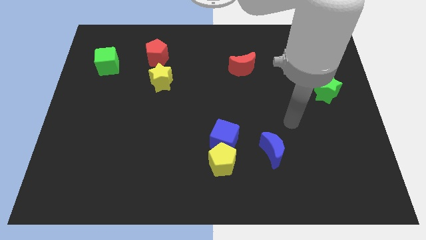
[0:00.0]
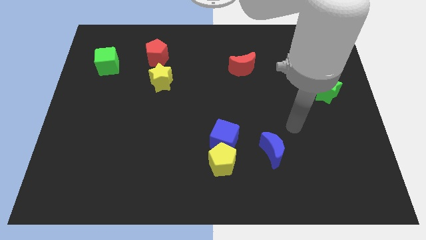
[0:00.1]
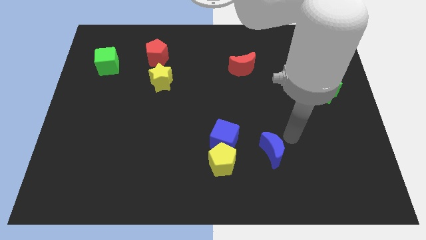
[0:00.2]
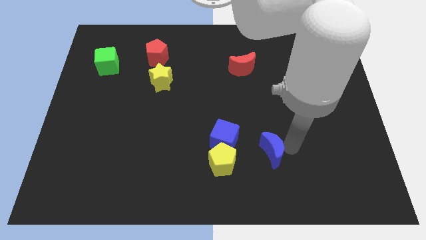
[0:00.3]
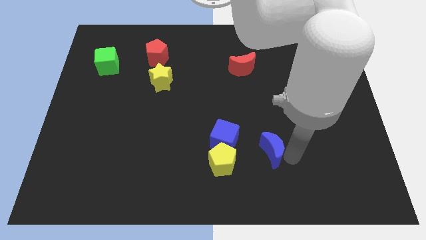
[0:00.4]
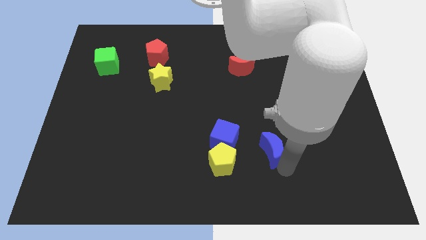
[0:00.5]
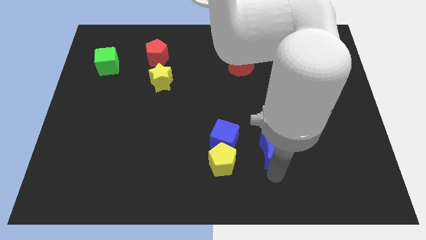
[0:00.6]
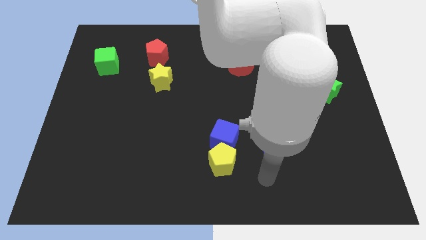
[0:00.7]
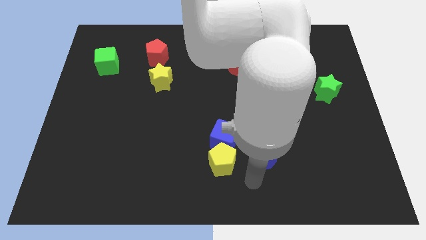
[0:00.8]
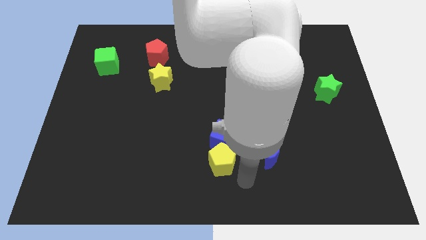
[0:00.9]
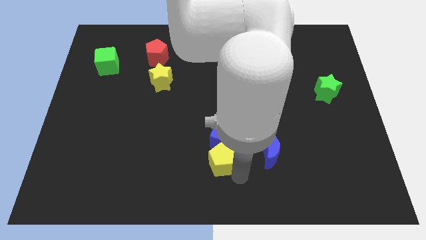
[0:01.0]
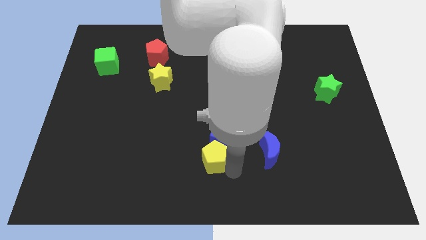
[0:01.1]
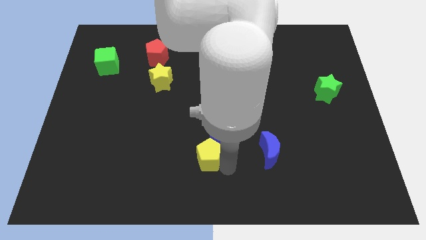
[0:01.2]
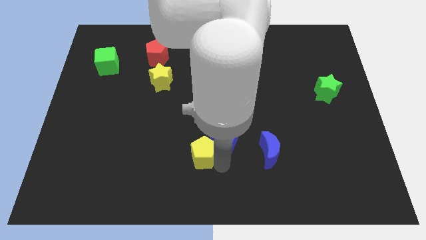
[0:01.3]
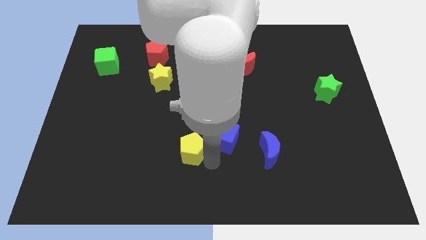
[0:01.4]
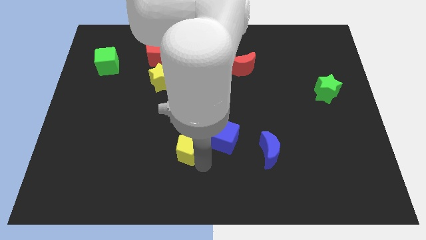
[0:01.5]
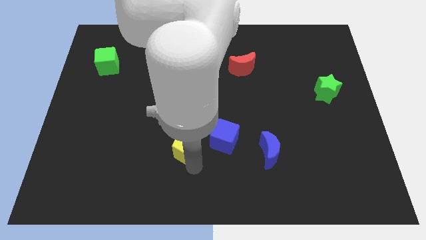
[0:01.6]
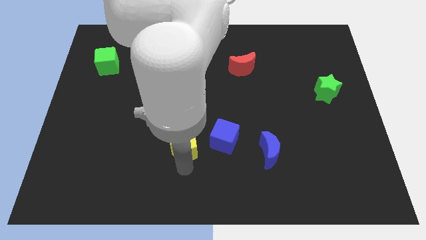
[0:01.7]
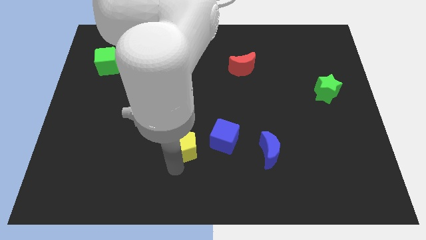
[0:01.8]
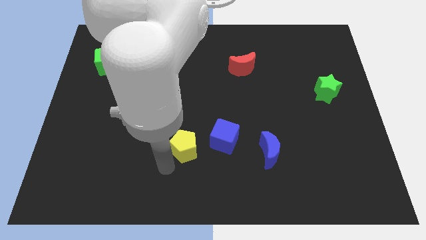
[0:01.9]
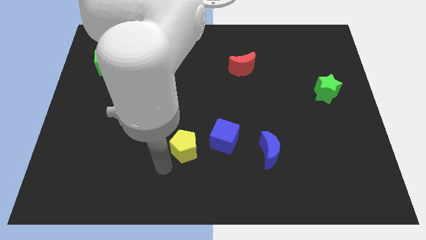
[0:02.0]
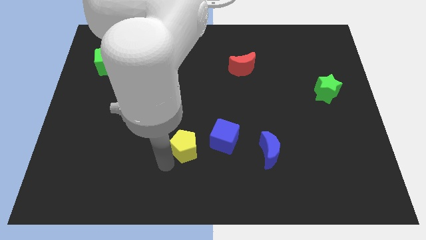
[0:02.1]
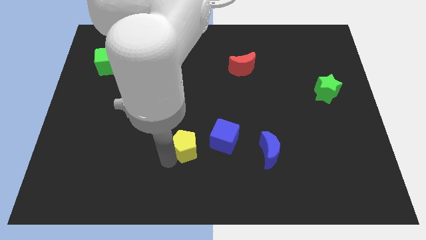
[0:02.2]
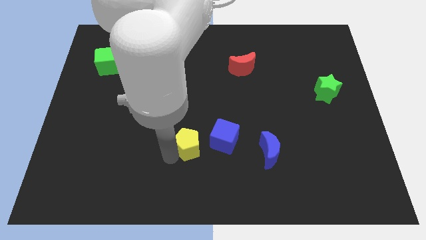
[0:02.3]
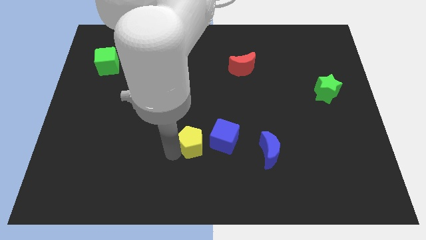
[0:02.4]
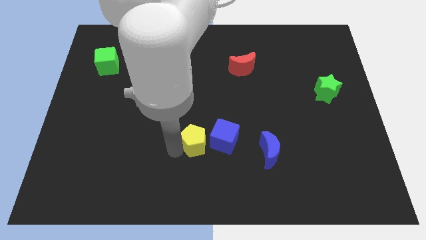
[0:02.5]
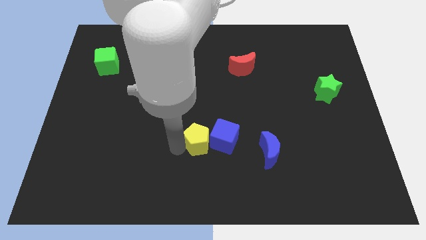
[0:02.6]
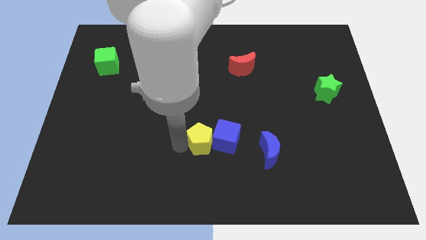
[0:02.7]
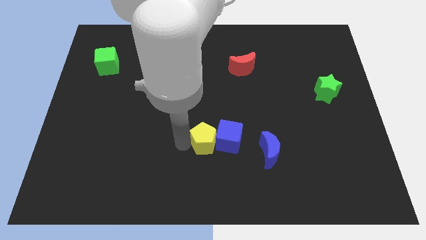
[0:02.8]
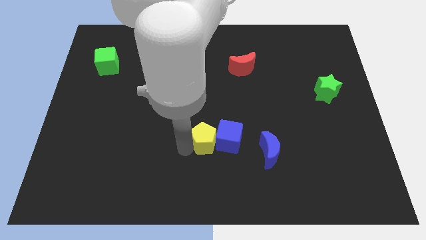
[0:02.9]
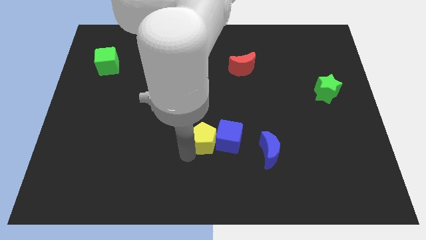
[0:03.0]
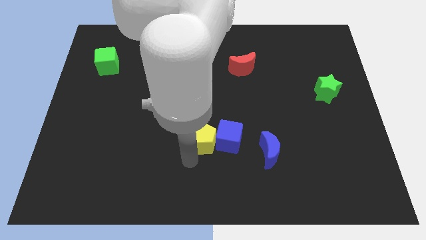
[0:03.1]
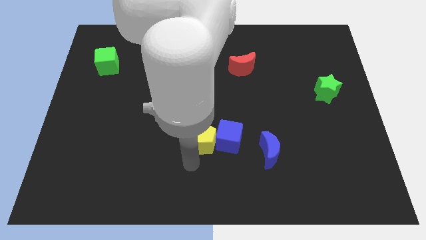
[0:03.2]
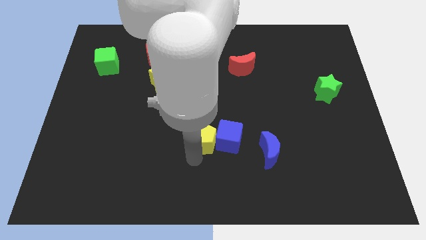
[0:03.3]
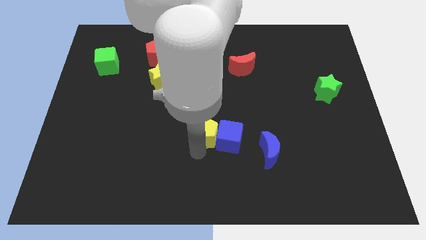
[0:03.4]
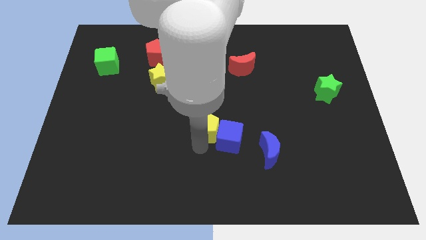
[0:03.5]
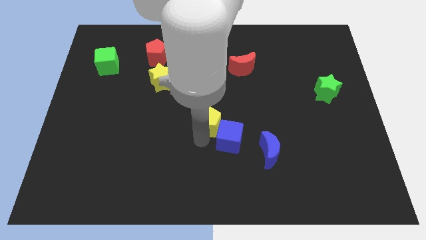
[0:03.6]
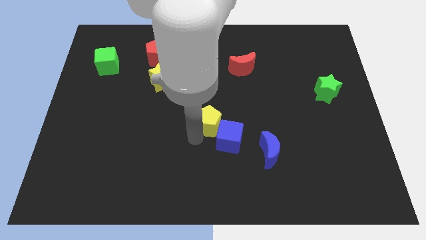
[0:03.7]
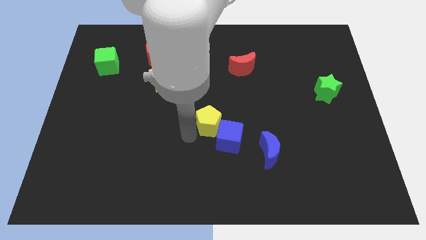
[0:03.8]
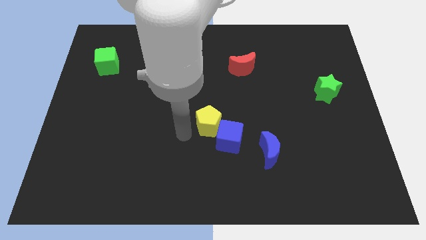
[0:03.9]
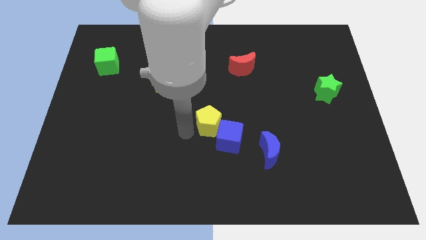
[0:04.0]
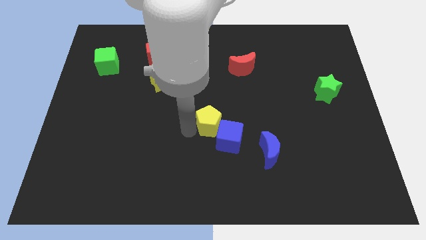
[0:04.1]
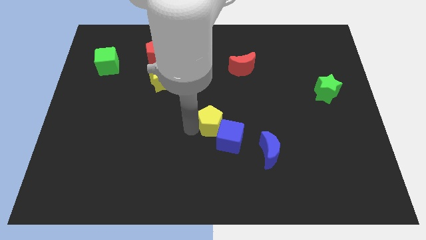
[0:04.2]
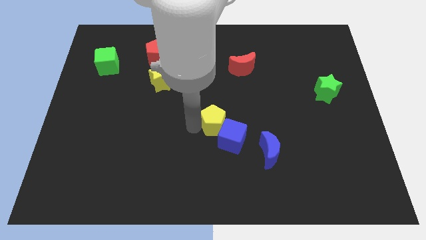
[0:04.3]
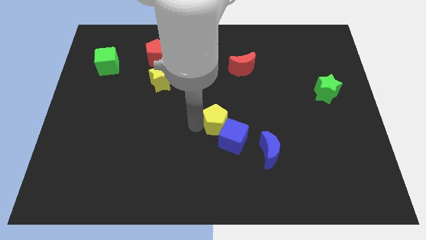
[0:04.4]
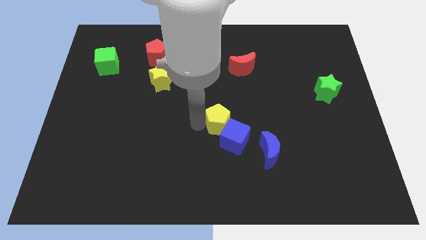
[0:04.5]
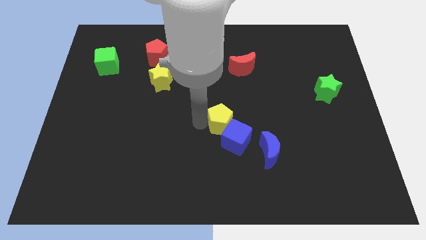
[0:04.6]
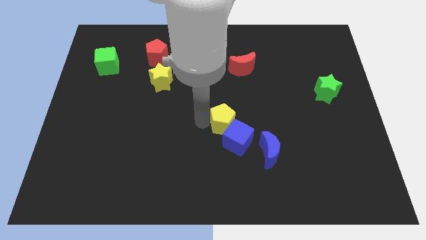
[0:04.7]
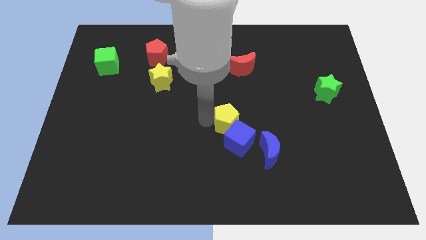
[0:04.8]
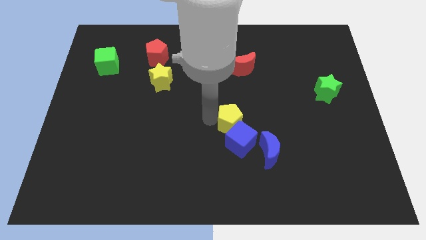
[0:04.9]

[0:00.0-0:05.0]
slide the yellow pentagon up and to the right diagonally a little

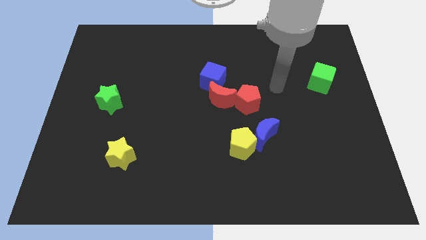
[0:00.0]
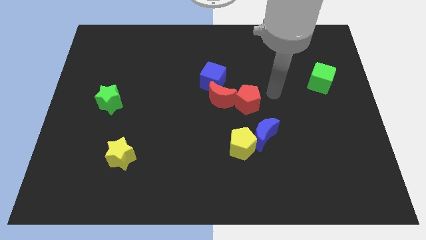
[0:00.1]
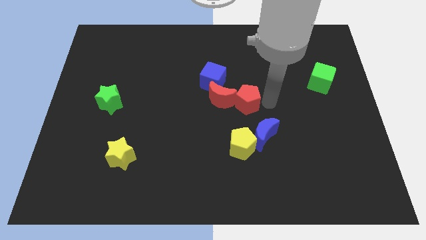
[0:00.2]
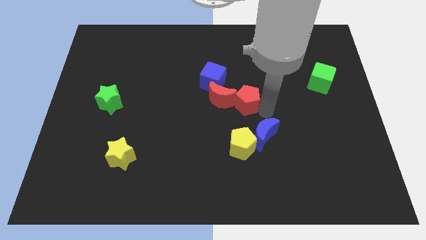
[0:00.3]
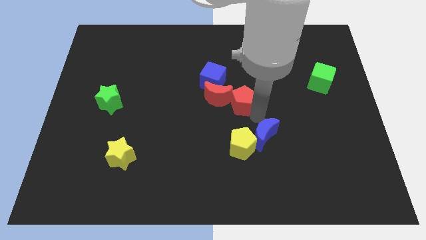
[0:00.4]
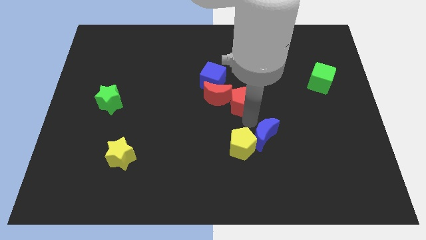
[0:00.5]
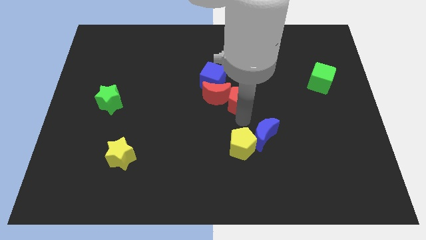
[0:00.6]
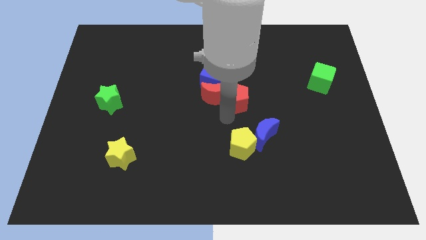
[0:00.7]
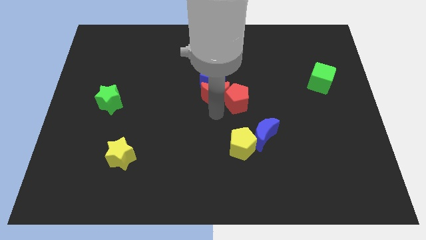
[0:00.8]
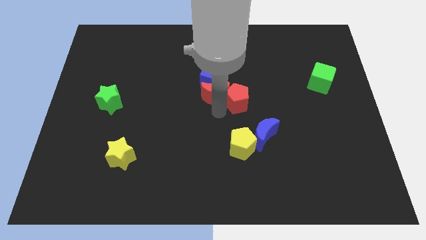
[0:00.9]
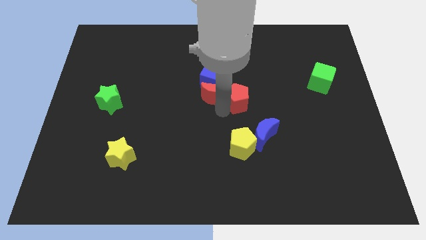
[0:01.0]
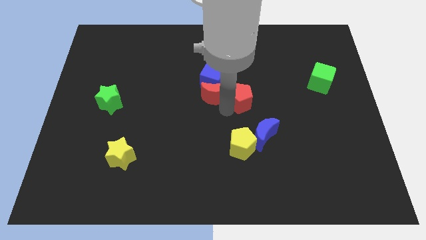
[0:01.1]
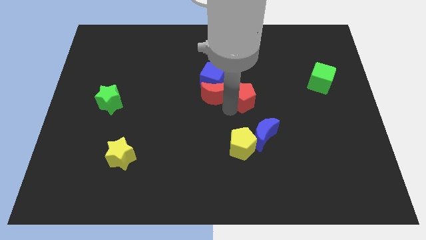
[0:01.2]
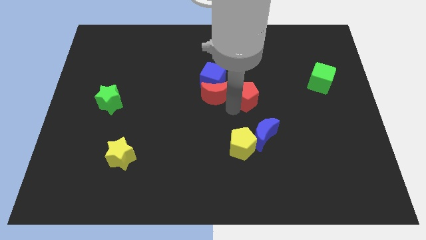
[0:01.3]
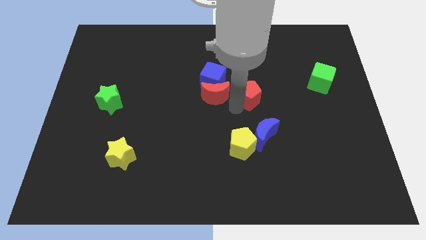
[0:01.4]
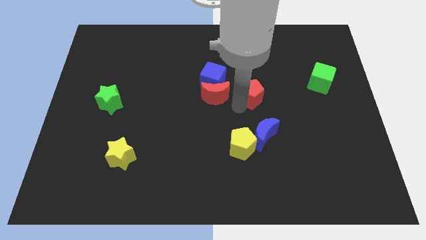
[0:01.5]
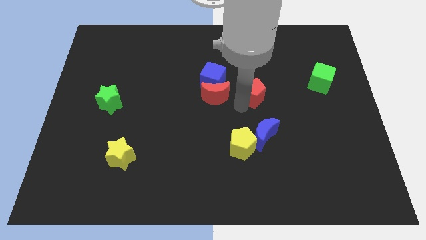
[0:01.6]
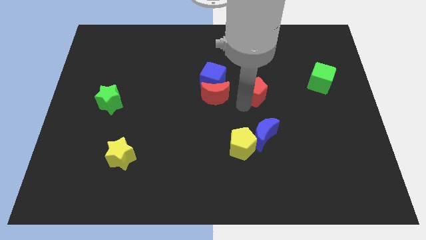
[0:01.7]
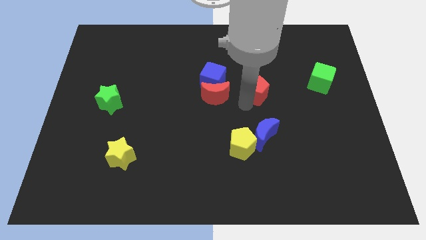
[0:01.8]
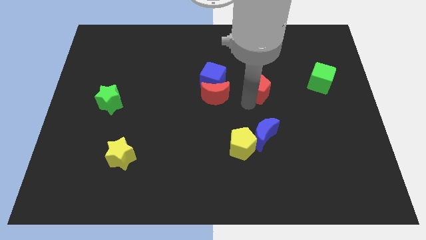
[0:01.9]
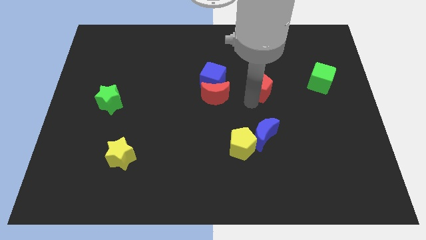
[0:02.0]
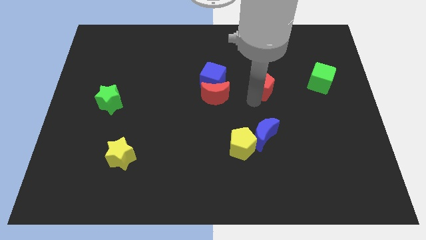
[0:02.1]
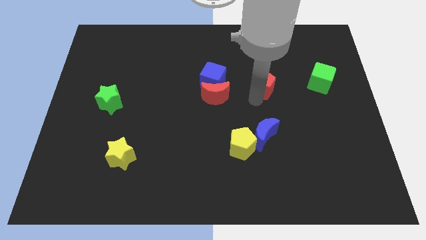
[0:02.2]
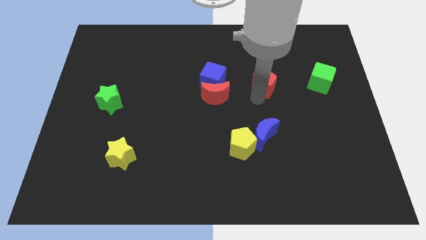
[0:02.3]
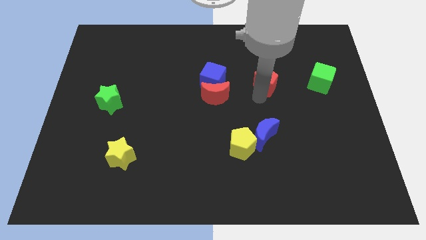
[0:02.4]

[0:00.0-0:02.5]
push the red pentagon a little diagonally up and to the right

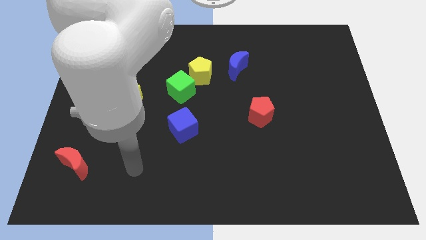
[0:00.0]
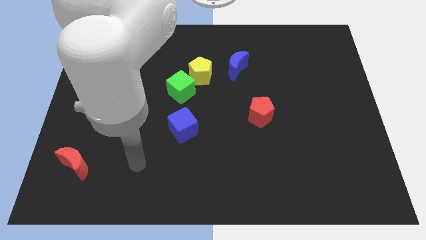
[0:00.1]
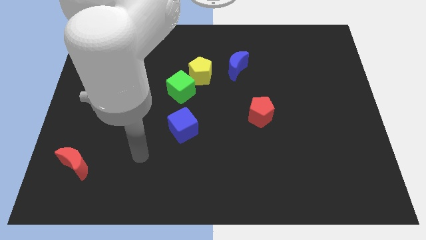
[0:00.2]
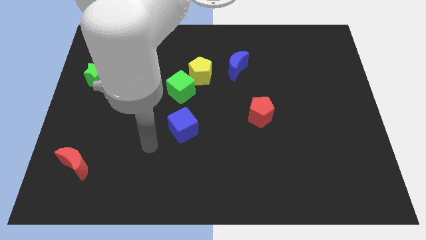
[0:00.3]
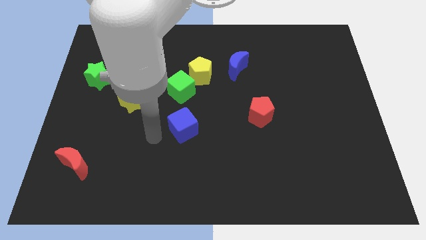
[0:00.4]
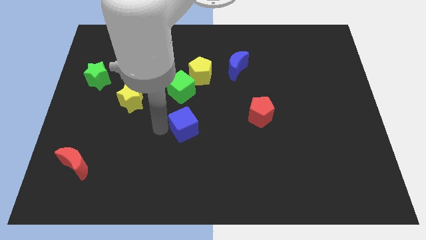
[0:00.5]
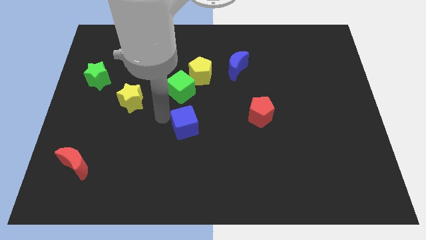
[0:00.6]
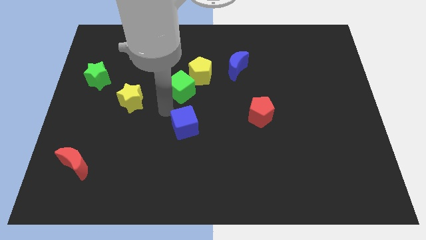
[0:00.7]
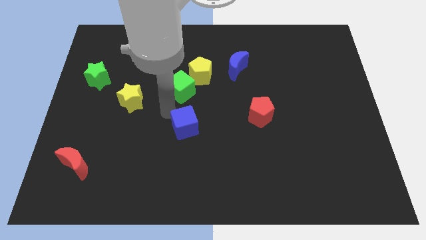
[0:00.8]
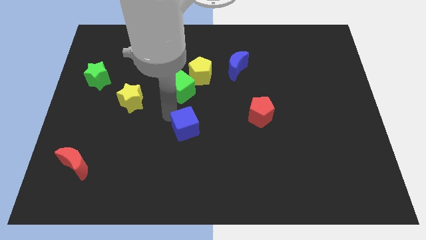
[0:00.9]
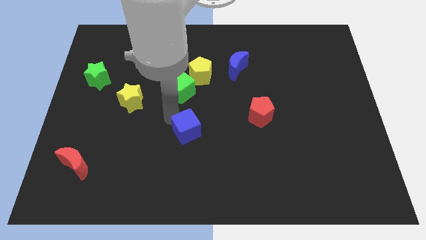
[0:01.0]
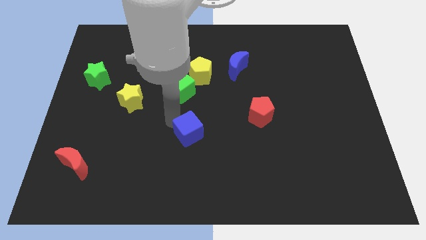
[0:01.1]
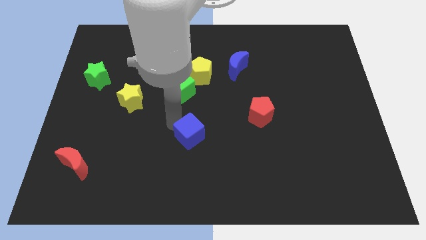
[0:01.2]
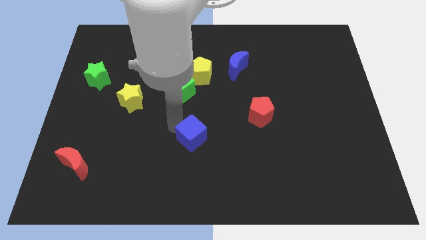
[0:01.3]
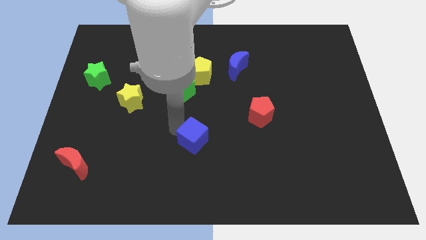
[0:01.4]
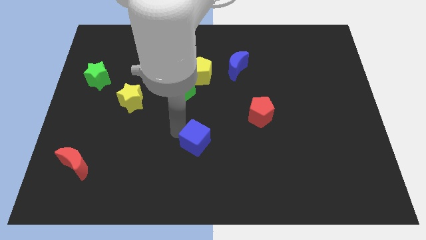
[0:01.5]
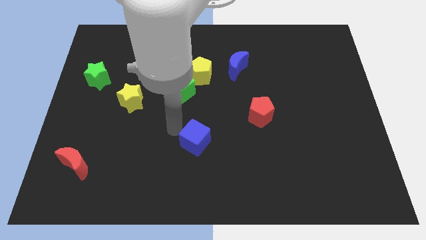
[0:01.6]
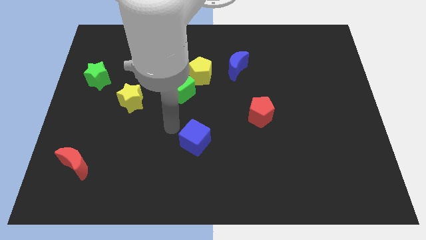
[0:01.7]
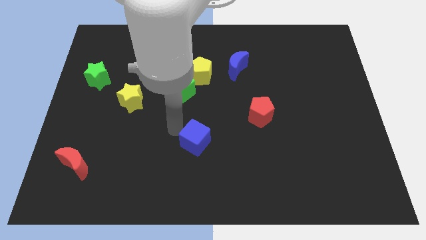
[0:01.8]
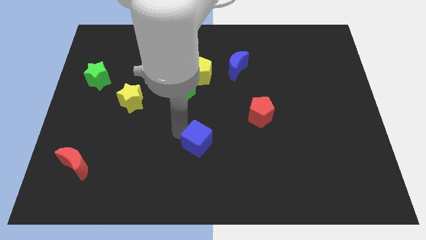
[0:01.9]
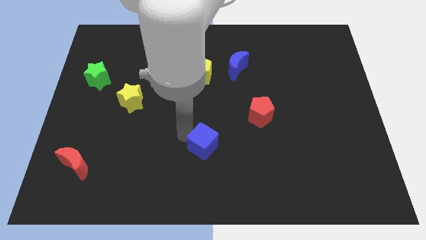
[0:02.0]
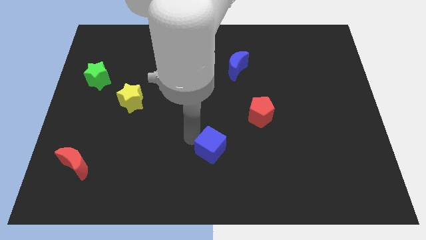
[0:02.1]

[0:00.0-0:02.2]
move the blue cube down and then to the right slightly
